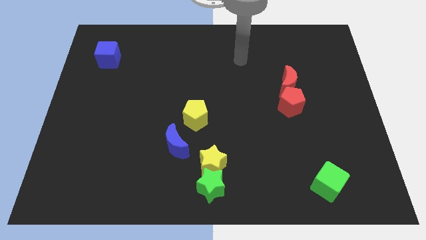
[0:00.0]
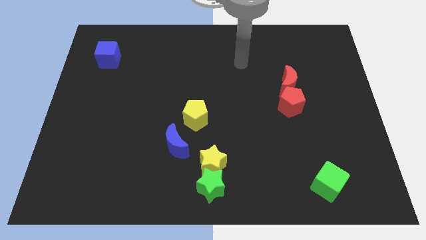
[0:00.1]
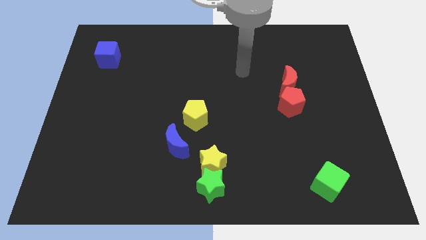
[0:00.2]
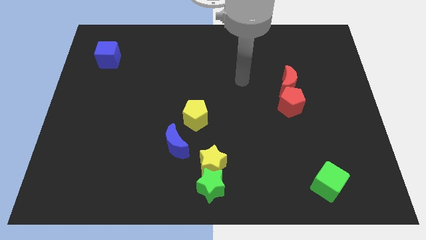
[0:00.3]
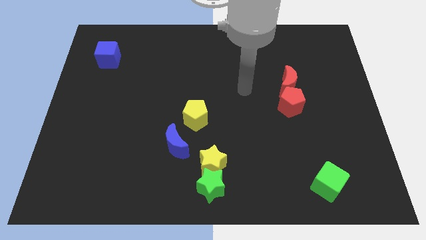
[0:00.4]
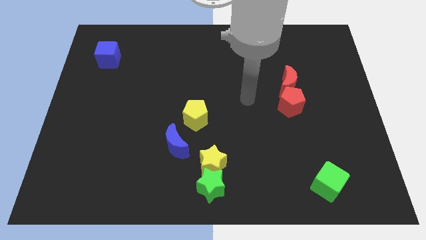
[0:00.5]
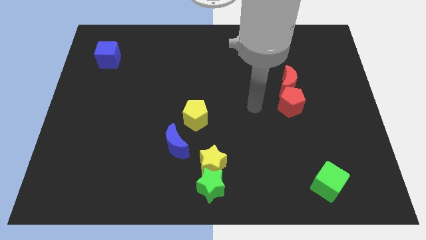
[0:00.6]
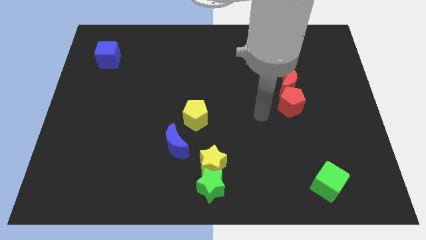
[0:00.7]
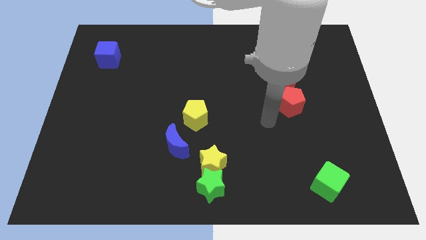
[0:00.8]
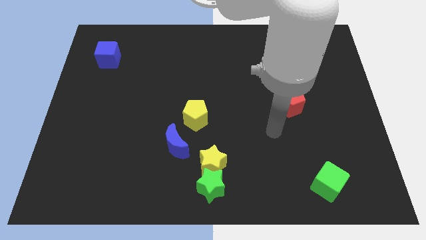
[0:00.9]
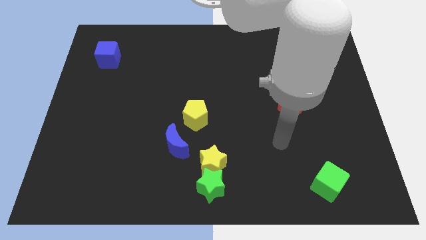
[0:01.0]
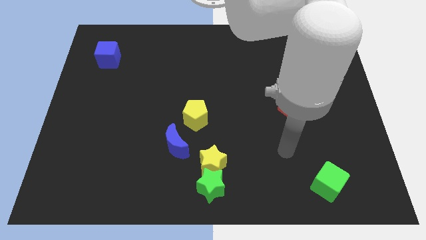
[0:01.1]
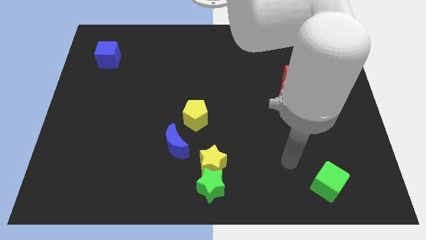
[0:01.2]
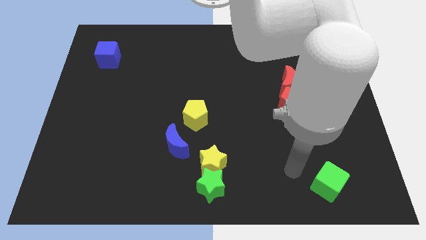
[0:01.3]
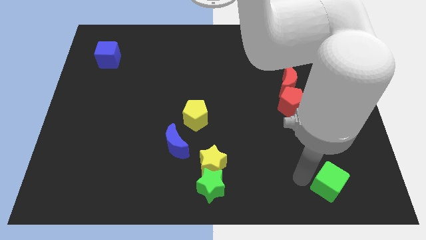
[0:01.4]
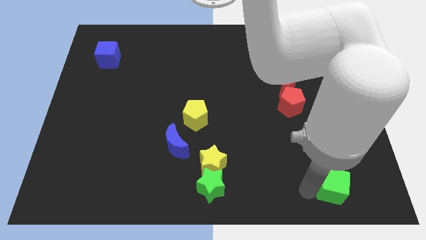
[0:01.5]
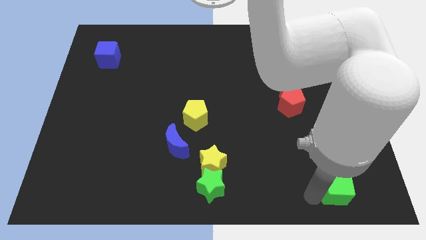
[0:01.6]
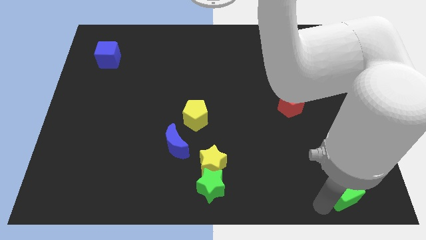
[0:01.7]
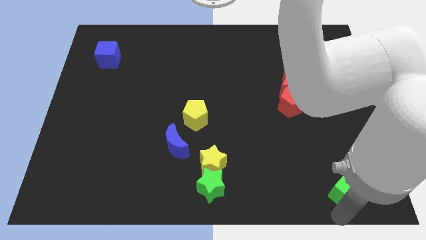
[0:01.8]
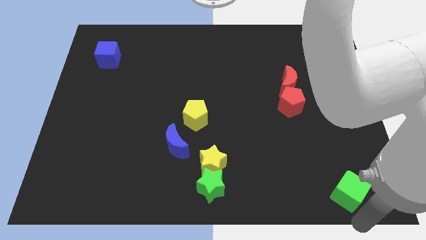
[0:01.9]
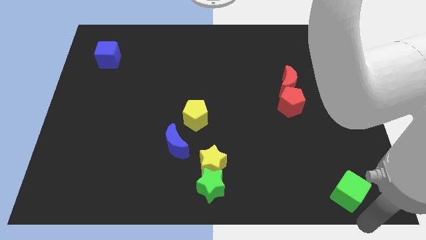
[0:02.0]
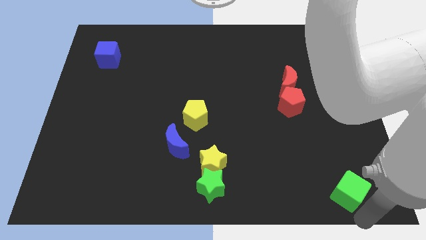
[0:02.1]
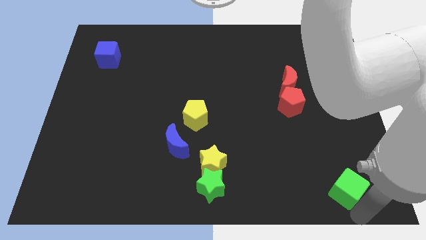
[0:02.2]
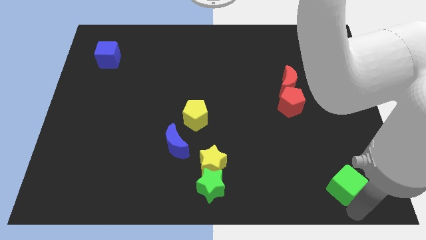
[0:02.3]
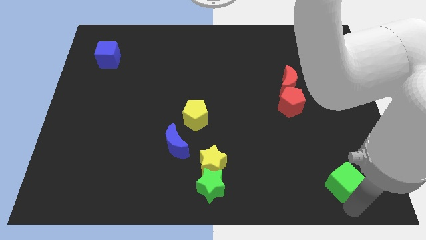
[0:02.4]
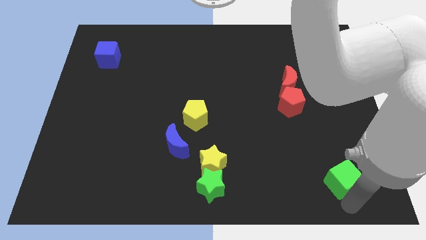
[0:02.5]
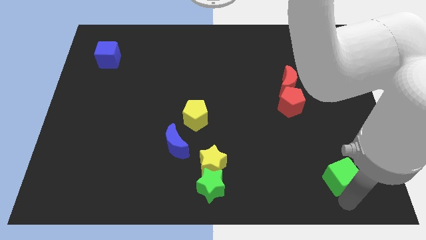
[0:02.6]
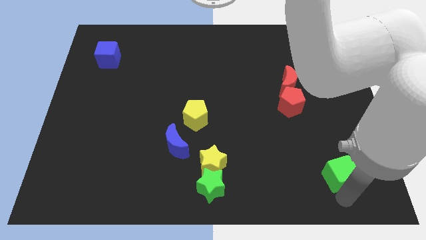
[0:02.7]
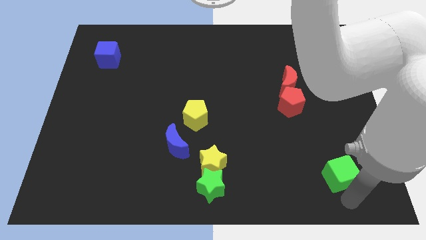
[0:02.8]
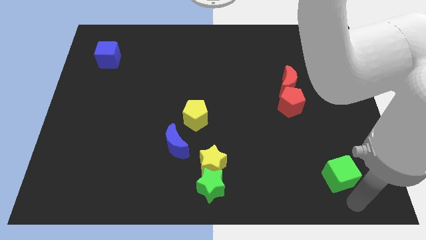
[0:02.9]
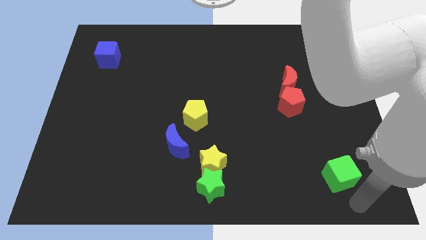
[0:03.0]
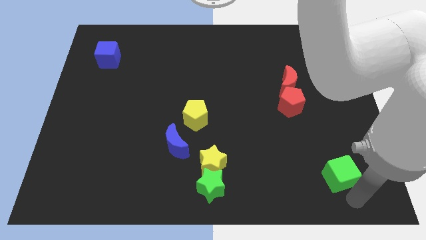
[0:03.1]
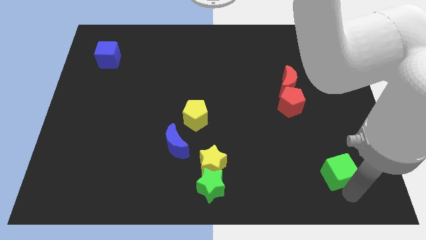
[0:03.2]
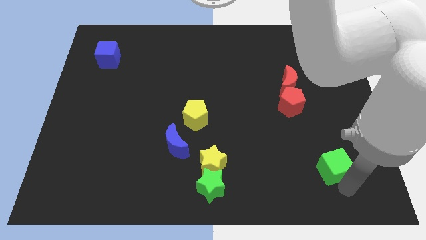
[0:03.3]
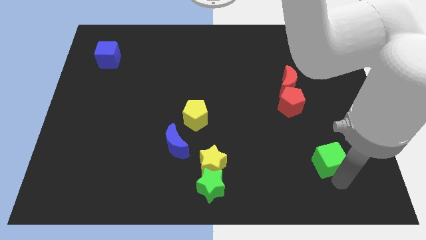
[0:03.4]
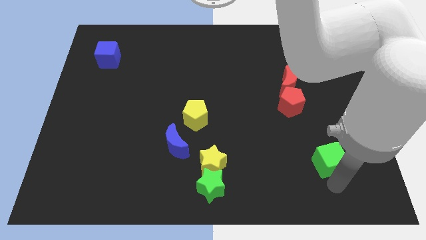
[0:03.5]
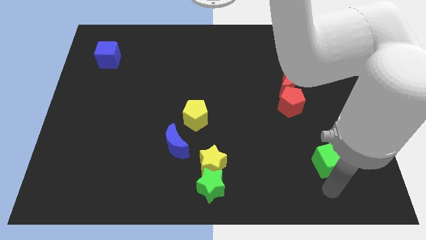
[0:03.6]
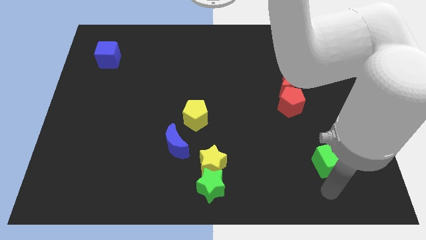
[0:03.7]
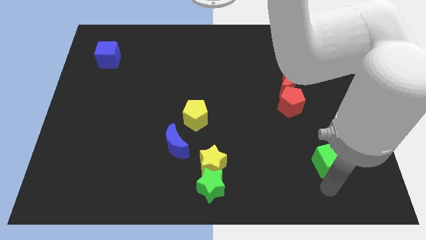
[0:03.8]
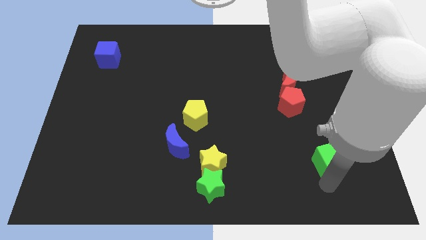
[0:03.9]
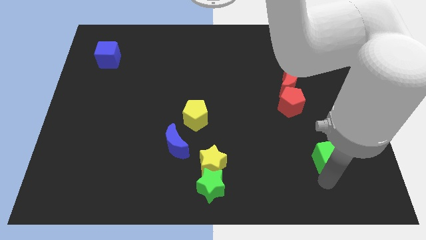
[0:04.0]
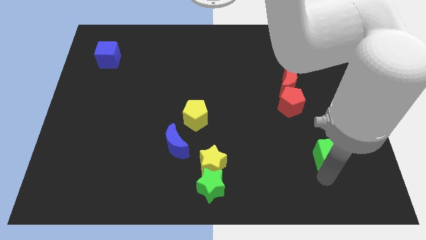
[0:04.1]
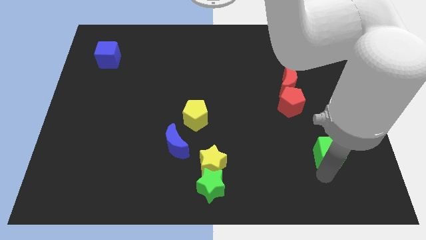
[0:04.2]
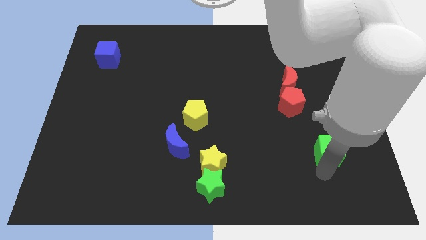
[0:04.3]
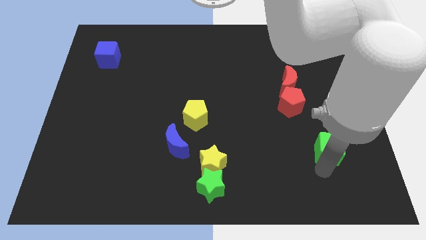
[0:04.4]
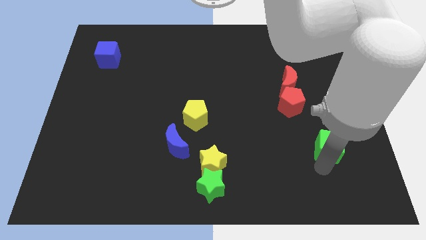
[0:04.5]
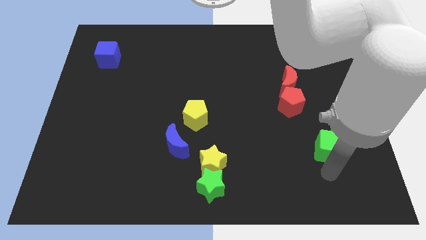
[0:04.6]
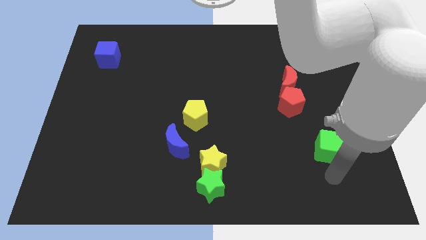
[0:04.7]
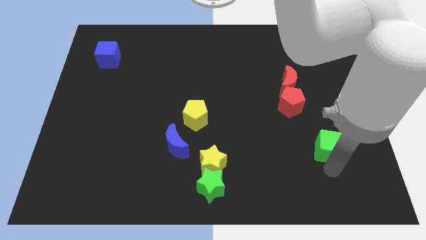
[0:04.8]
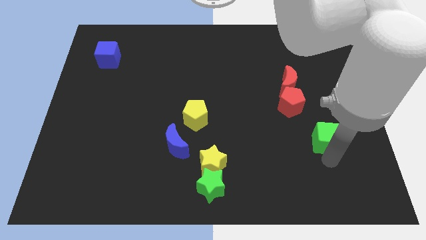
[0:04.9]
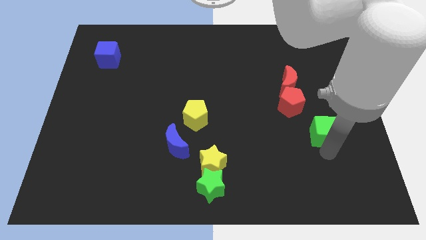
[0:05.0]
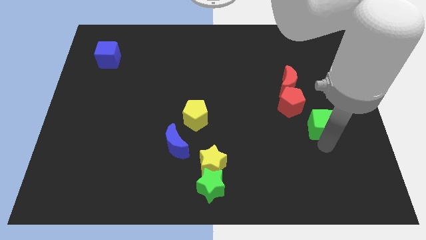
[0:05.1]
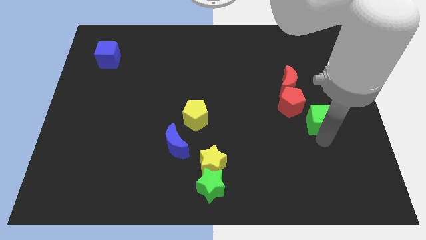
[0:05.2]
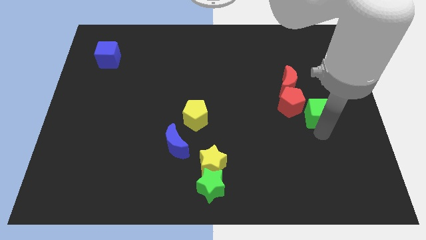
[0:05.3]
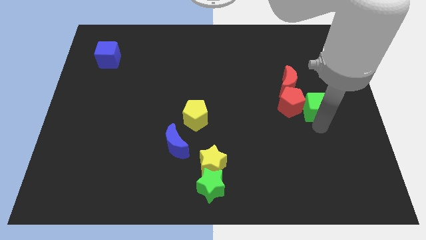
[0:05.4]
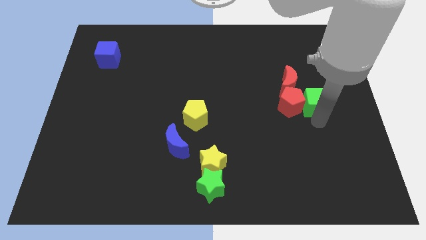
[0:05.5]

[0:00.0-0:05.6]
push the green cube up

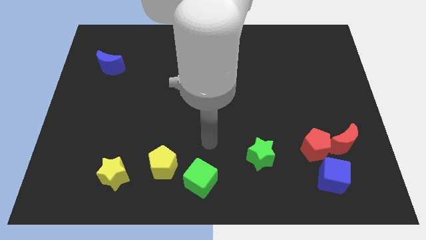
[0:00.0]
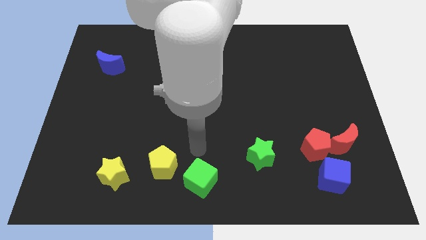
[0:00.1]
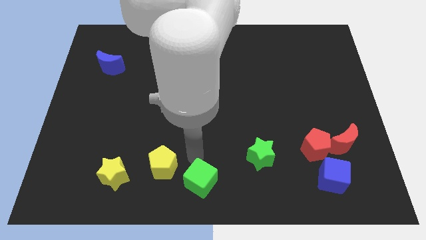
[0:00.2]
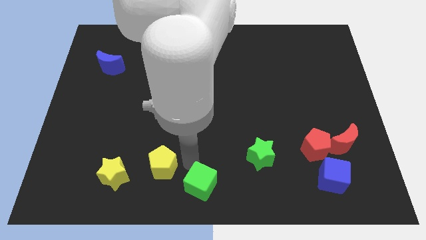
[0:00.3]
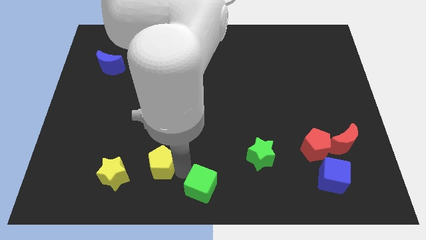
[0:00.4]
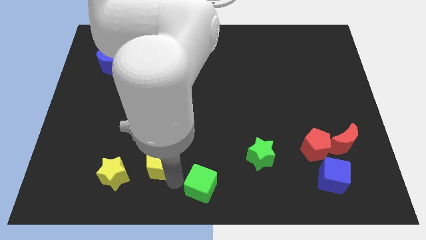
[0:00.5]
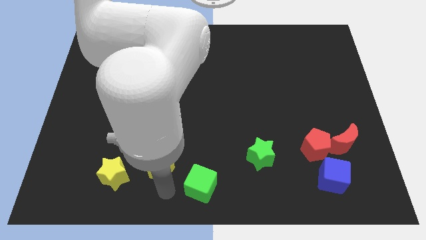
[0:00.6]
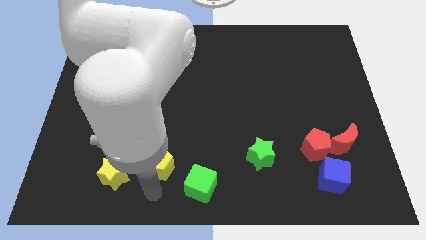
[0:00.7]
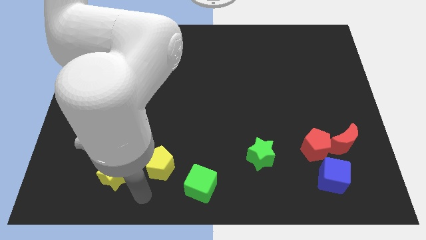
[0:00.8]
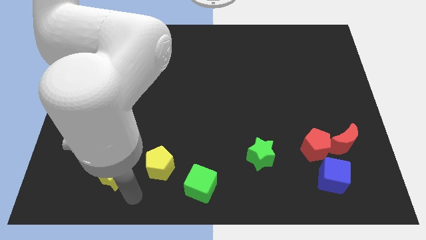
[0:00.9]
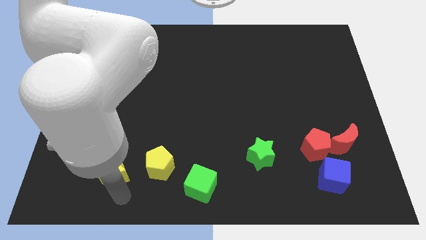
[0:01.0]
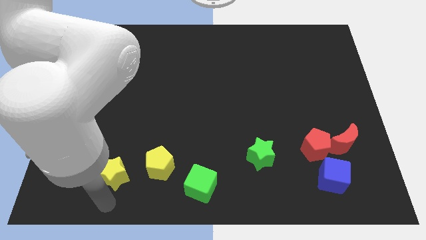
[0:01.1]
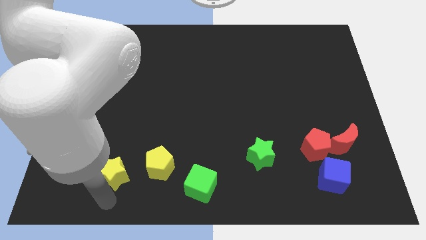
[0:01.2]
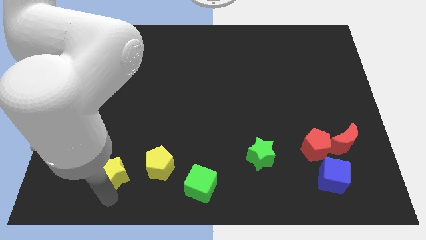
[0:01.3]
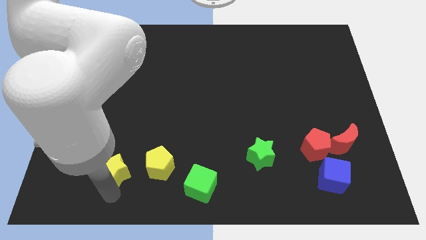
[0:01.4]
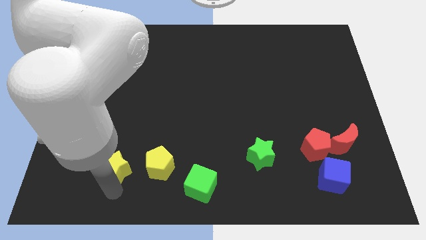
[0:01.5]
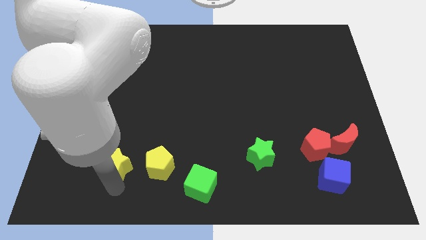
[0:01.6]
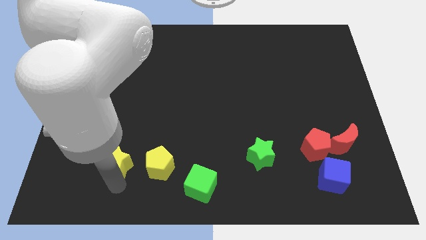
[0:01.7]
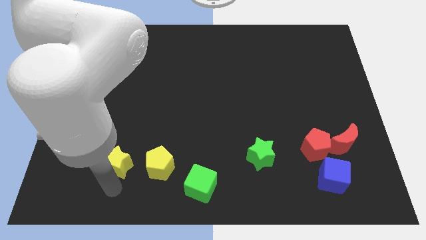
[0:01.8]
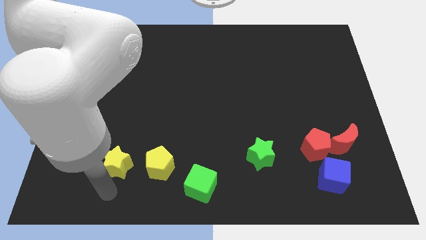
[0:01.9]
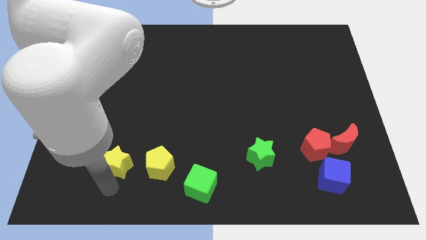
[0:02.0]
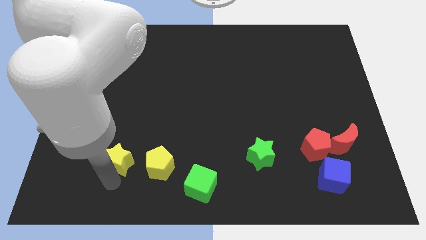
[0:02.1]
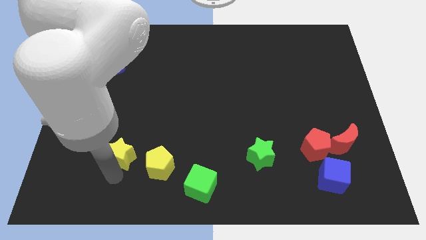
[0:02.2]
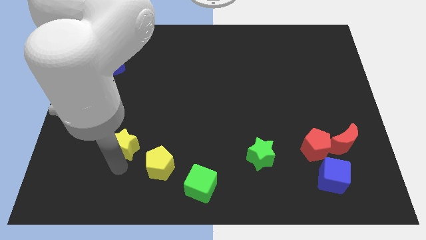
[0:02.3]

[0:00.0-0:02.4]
move the yellow star a bit upwards
